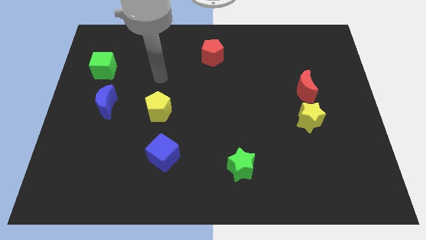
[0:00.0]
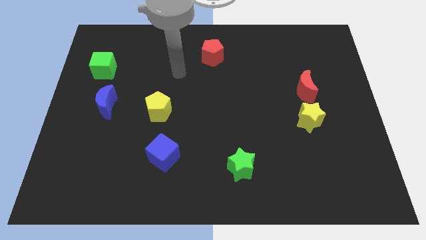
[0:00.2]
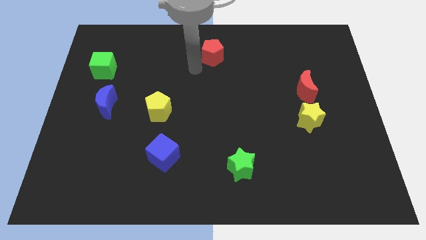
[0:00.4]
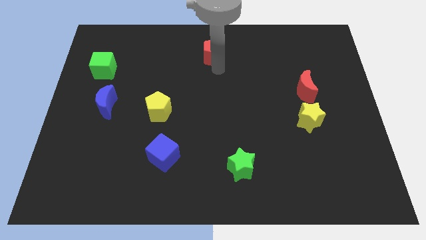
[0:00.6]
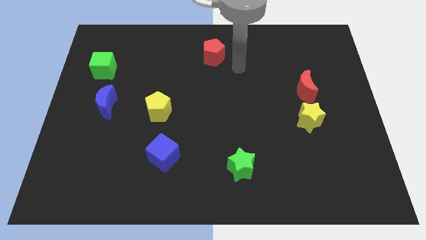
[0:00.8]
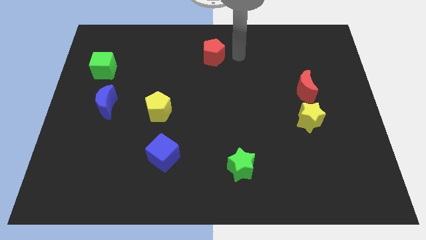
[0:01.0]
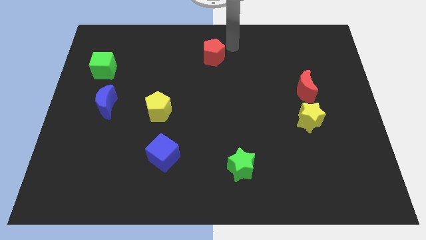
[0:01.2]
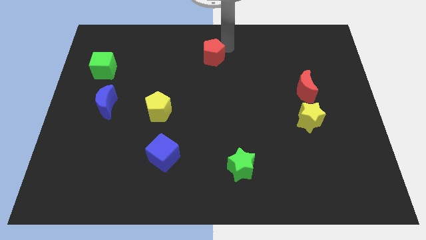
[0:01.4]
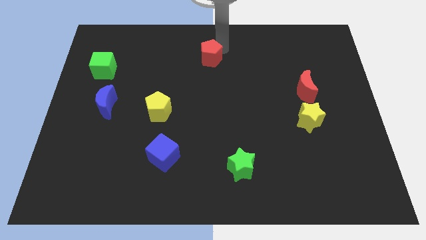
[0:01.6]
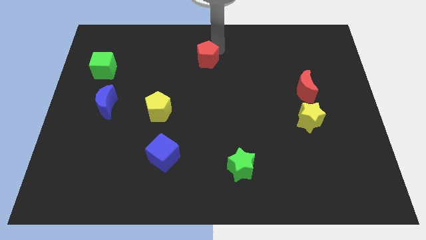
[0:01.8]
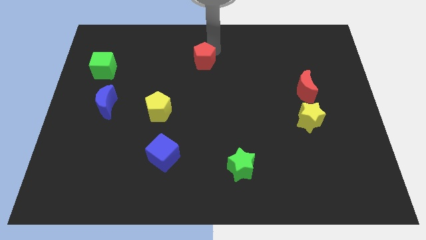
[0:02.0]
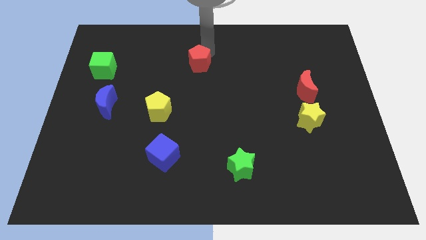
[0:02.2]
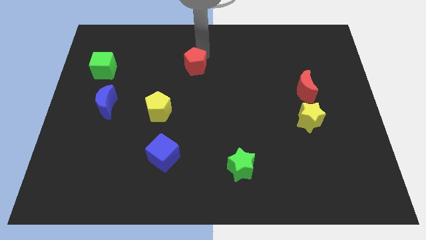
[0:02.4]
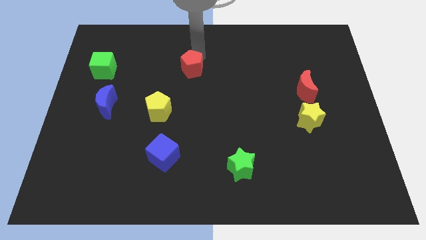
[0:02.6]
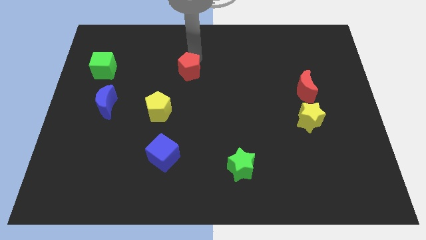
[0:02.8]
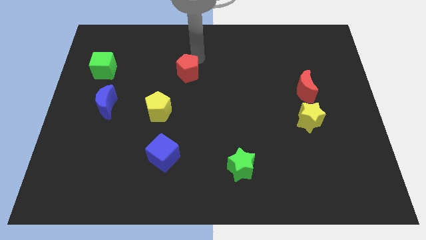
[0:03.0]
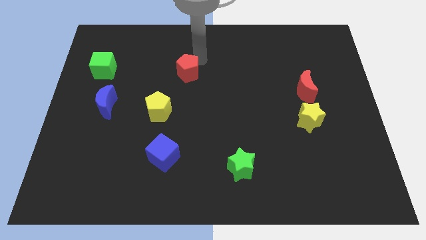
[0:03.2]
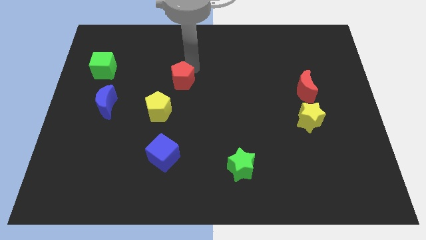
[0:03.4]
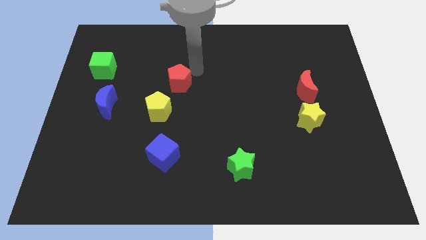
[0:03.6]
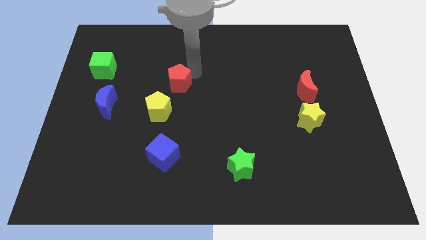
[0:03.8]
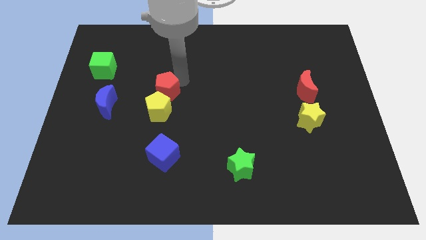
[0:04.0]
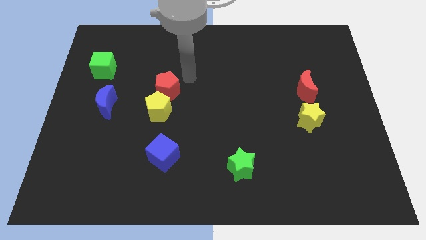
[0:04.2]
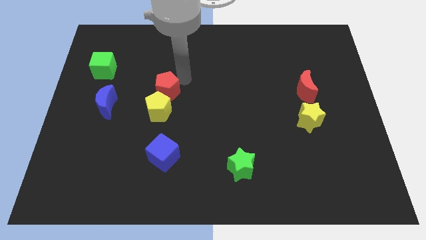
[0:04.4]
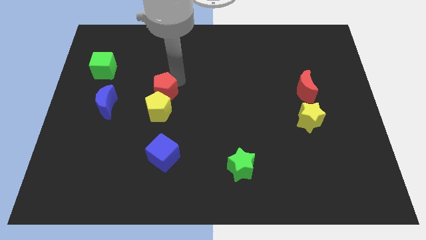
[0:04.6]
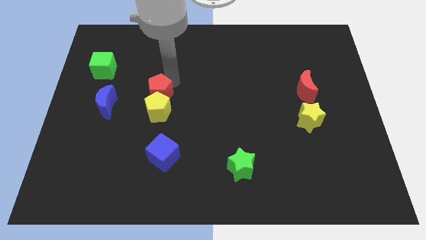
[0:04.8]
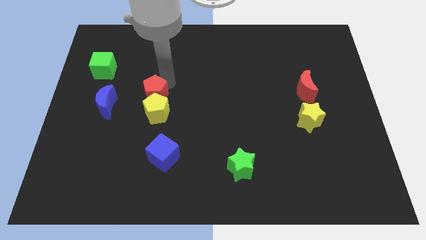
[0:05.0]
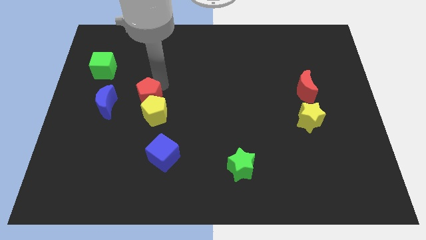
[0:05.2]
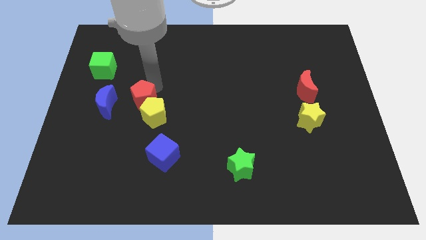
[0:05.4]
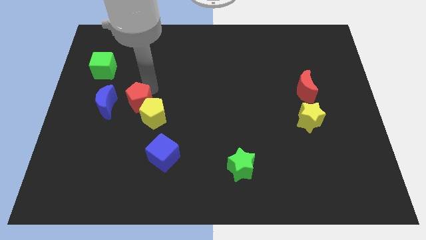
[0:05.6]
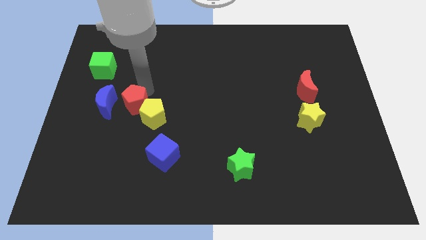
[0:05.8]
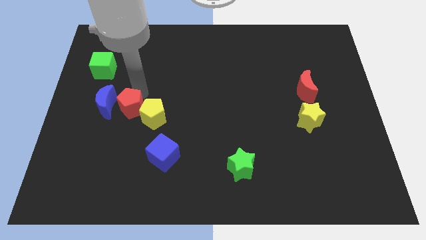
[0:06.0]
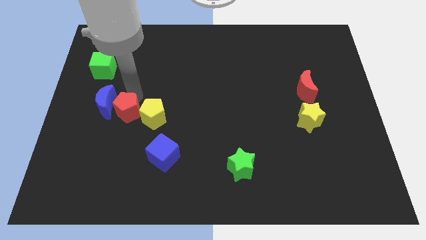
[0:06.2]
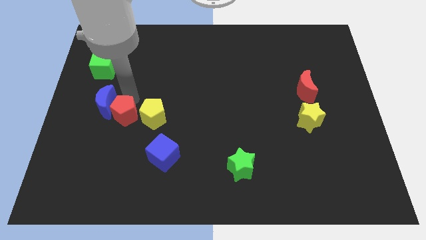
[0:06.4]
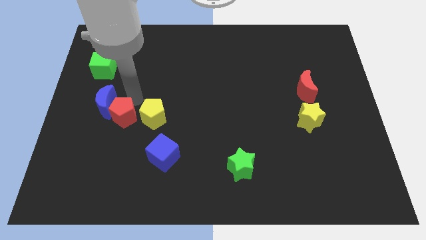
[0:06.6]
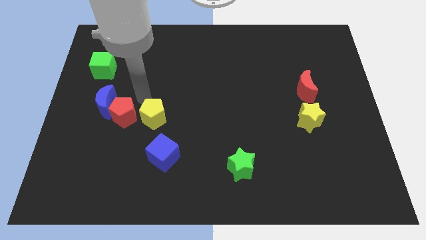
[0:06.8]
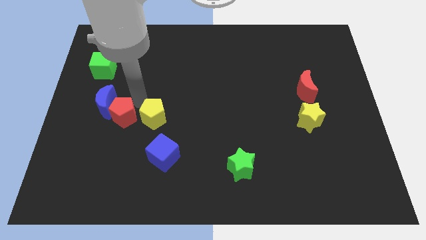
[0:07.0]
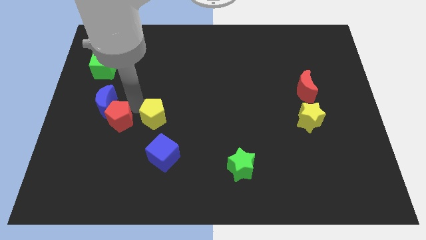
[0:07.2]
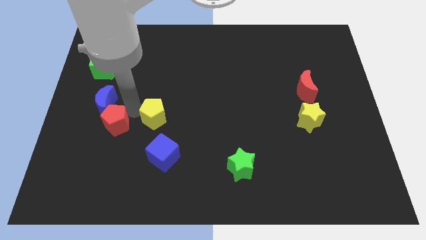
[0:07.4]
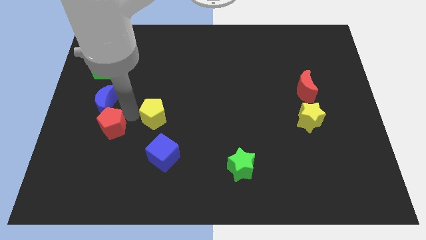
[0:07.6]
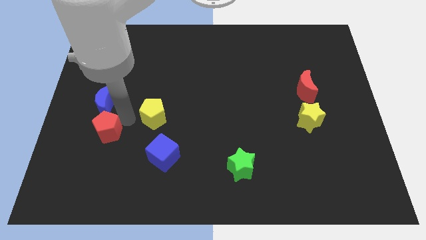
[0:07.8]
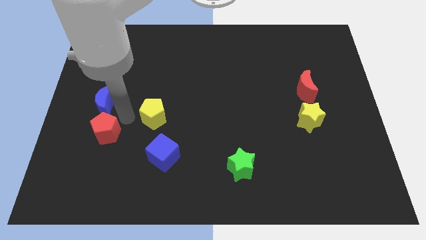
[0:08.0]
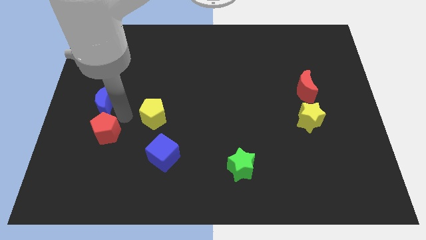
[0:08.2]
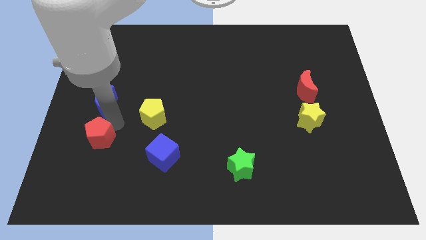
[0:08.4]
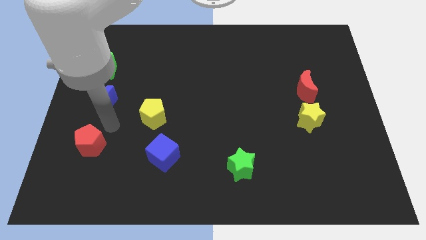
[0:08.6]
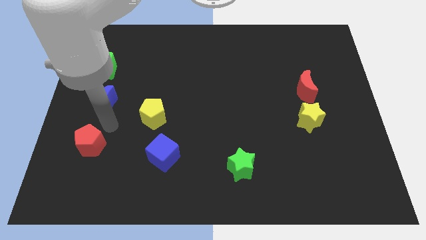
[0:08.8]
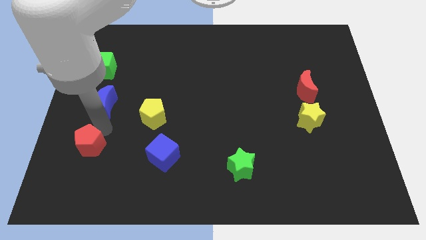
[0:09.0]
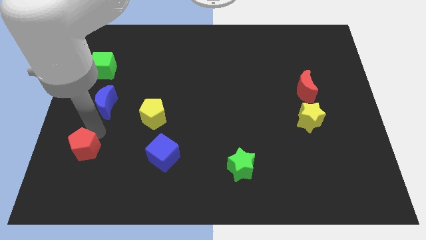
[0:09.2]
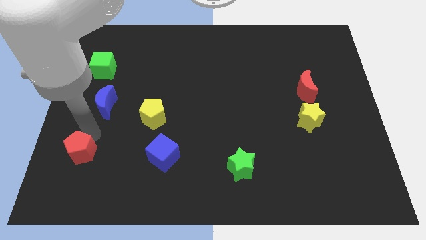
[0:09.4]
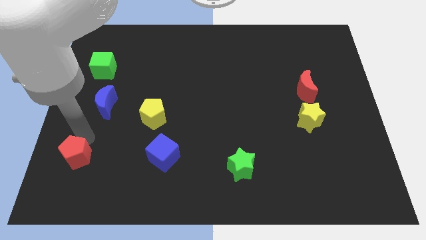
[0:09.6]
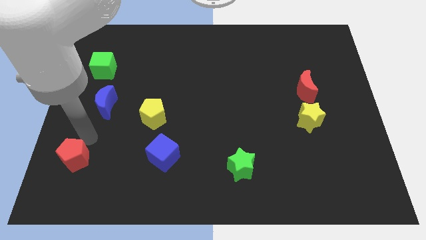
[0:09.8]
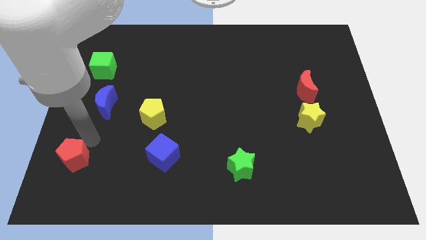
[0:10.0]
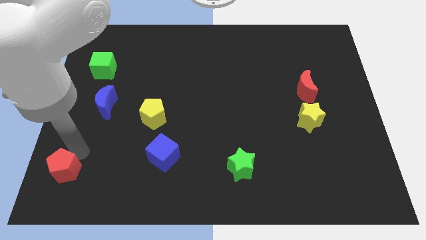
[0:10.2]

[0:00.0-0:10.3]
slide the red pentagon to the bottom left of the board

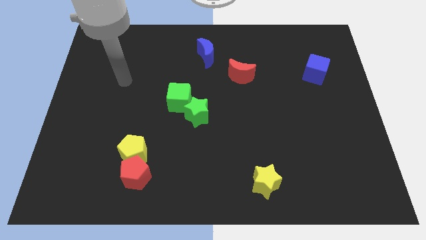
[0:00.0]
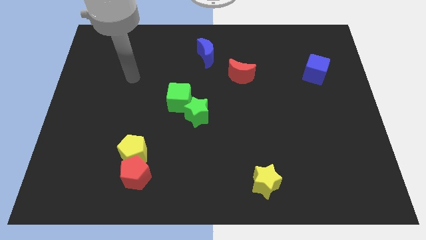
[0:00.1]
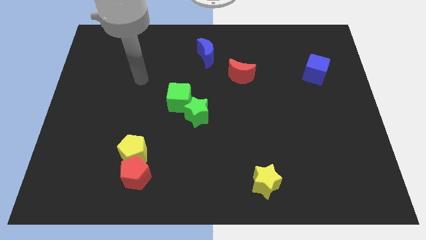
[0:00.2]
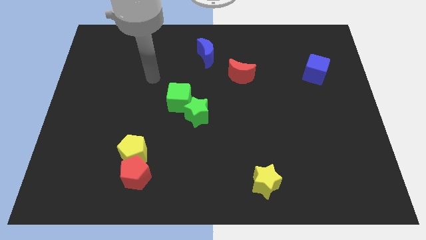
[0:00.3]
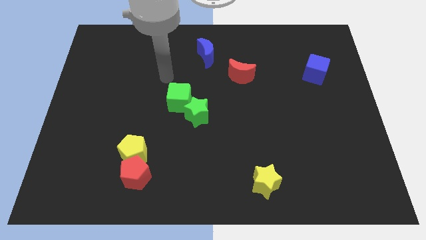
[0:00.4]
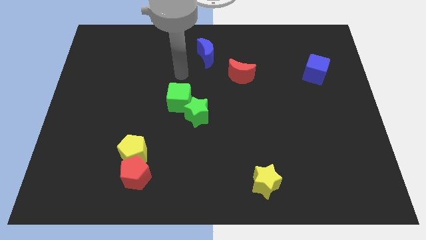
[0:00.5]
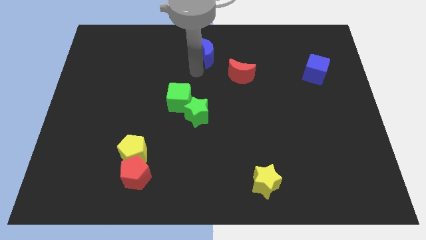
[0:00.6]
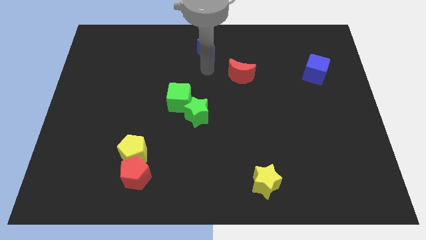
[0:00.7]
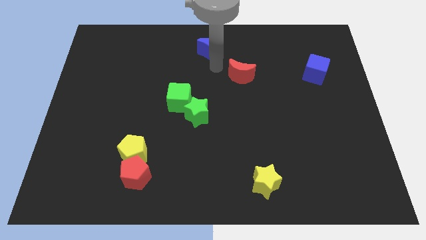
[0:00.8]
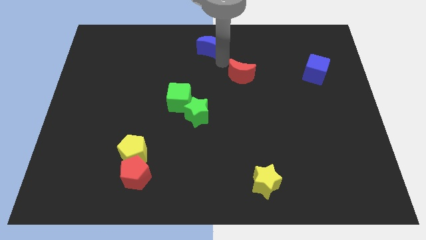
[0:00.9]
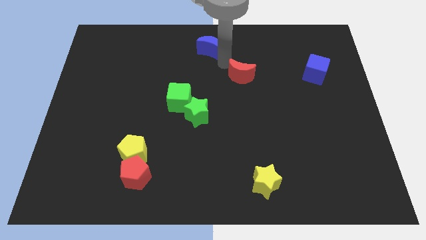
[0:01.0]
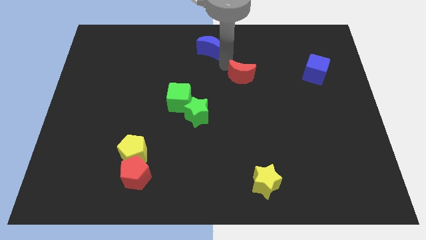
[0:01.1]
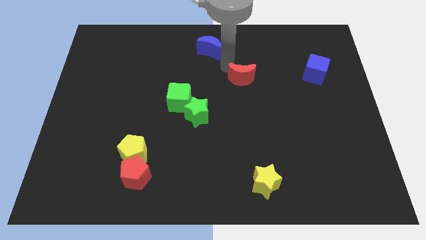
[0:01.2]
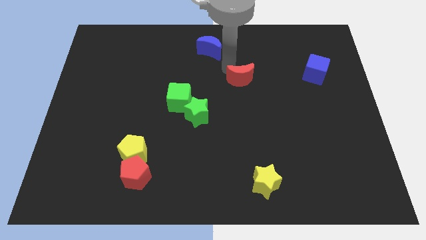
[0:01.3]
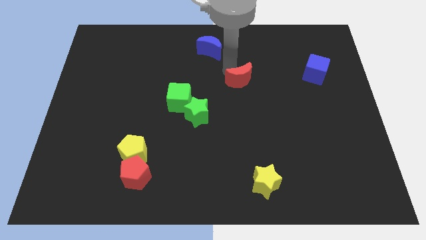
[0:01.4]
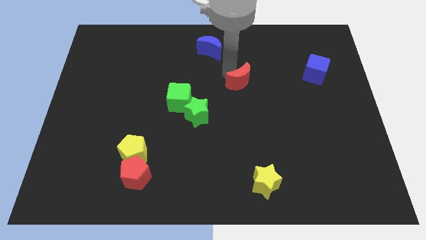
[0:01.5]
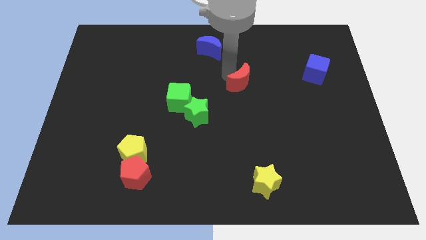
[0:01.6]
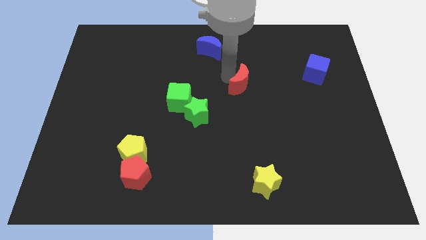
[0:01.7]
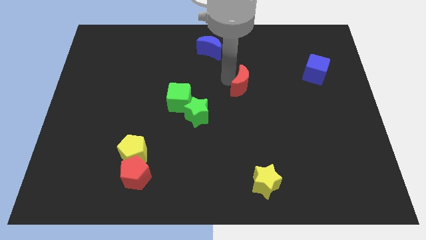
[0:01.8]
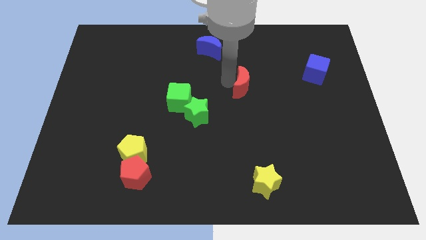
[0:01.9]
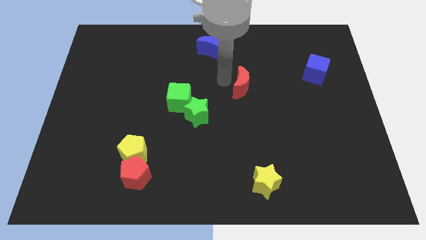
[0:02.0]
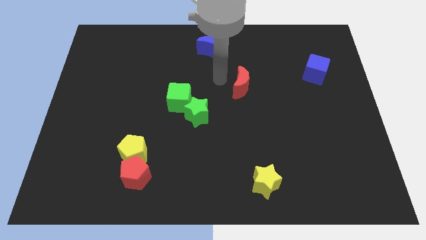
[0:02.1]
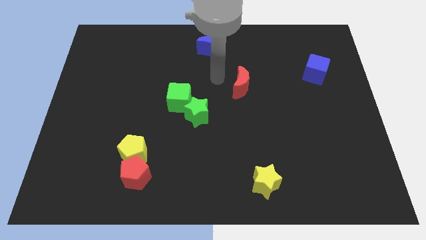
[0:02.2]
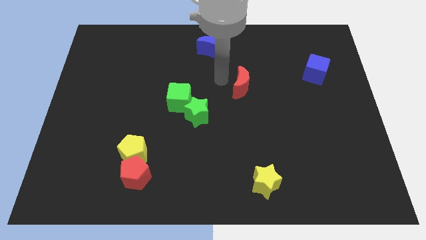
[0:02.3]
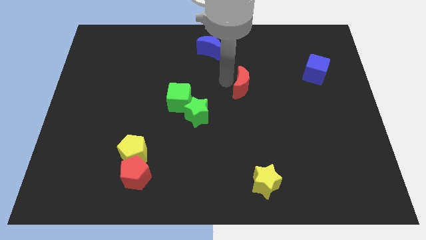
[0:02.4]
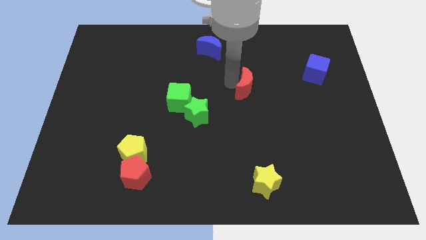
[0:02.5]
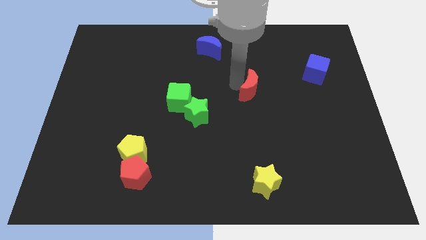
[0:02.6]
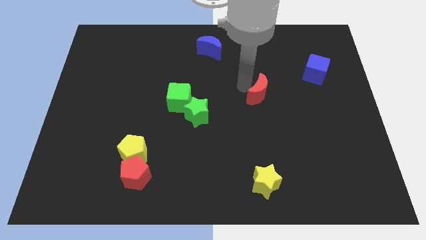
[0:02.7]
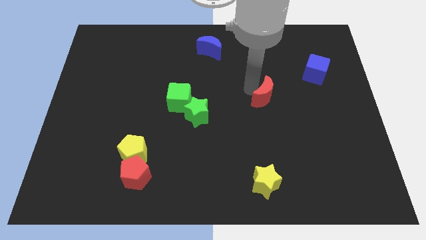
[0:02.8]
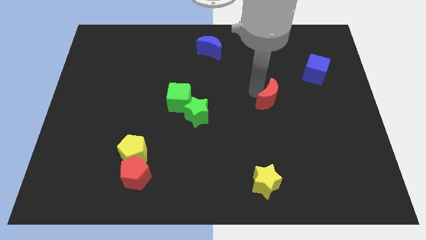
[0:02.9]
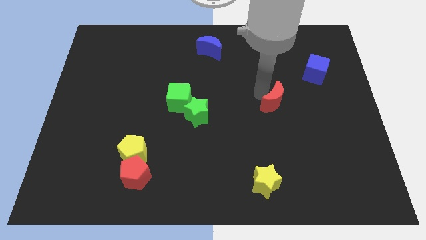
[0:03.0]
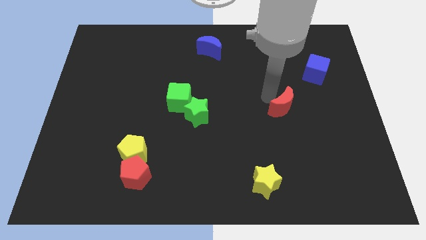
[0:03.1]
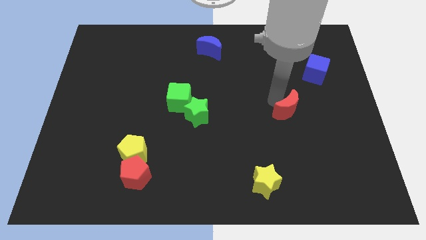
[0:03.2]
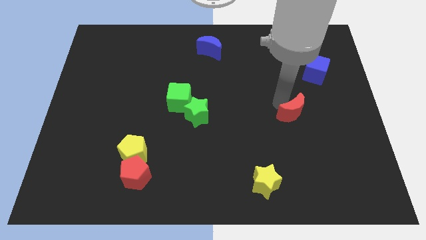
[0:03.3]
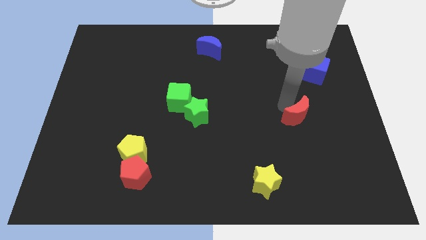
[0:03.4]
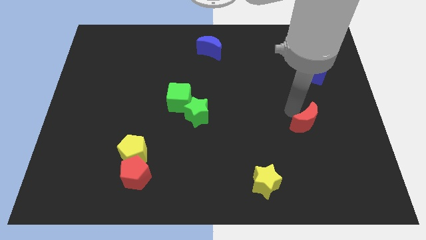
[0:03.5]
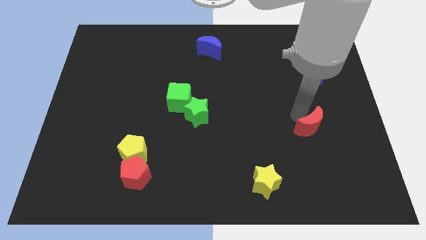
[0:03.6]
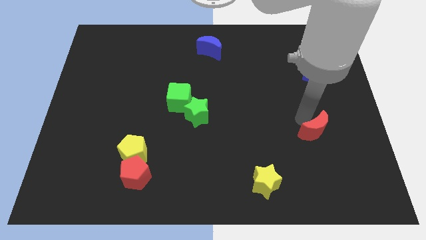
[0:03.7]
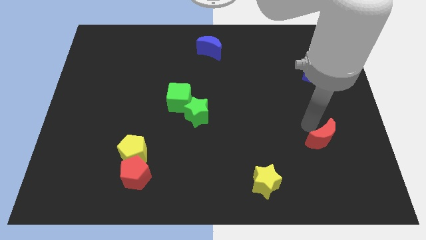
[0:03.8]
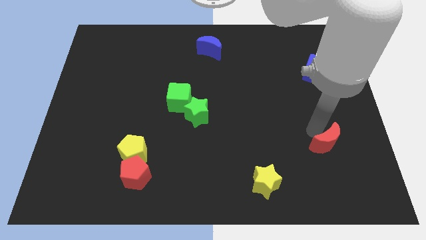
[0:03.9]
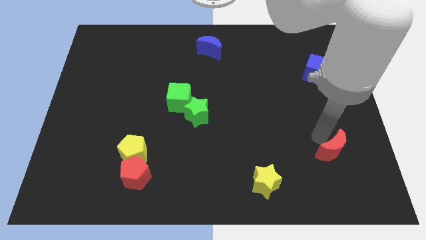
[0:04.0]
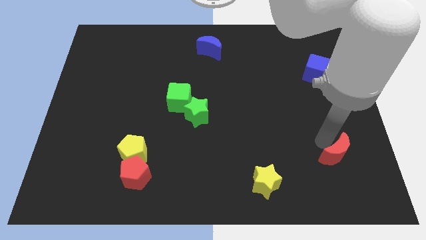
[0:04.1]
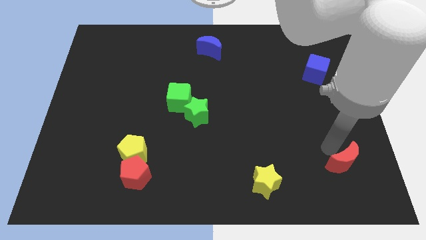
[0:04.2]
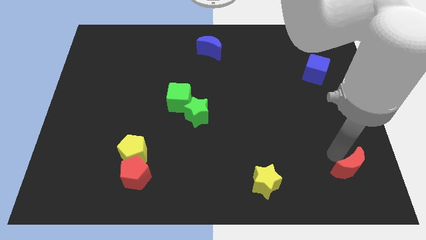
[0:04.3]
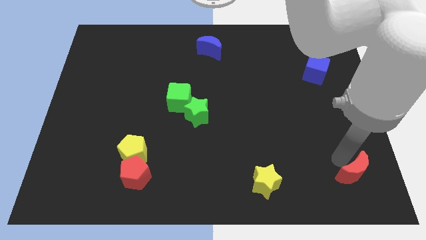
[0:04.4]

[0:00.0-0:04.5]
put the red moon to the lower right corner
